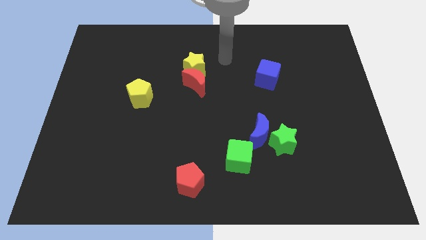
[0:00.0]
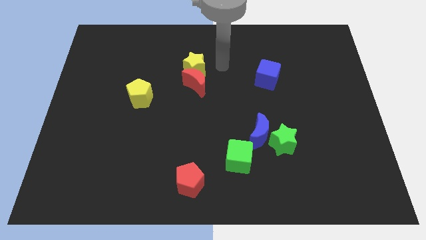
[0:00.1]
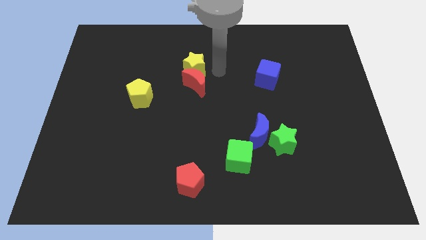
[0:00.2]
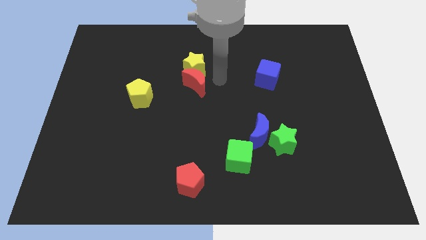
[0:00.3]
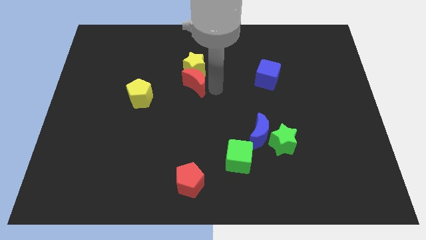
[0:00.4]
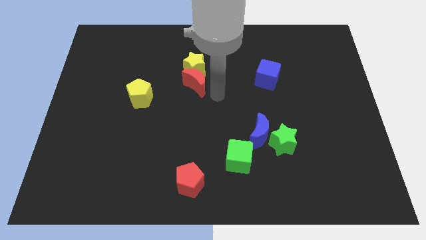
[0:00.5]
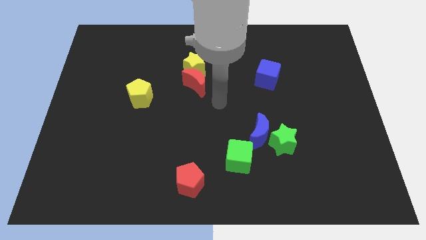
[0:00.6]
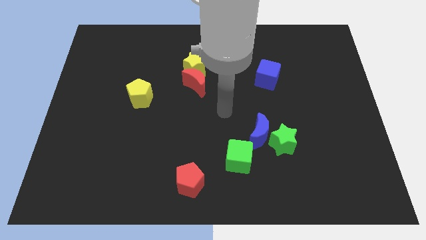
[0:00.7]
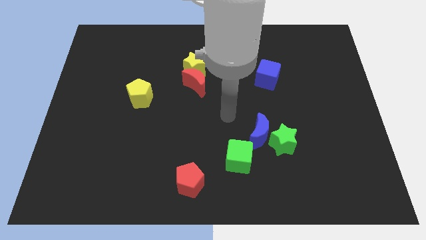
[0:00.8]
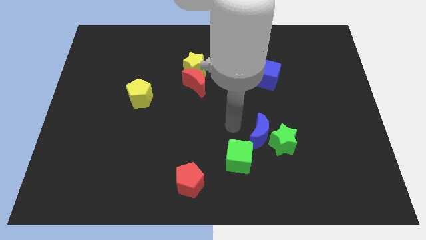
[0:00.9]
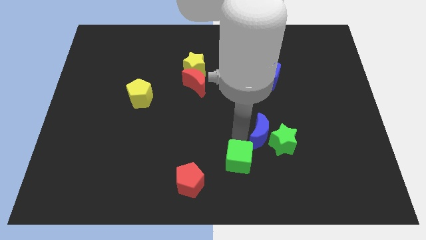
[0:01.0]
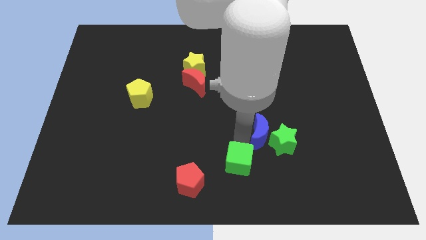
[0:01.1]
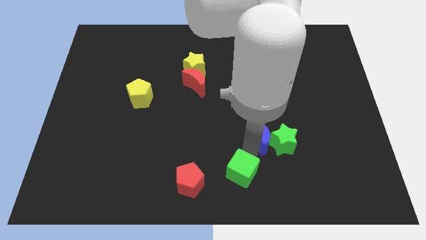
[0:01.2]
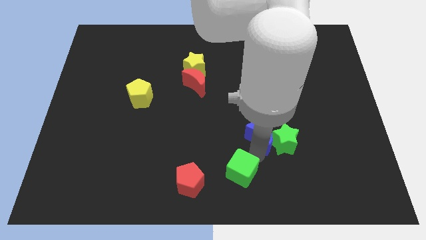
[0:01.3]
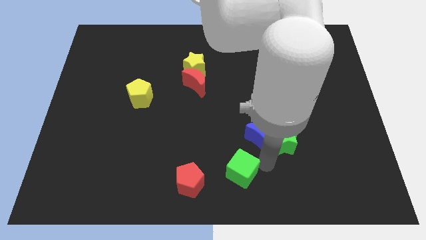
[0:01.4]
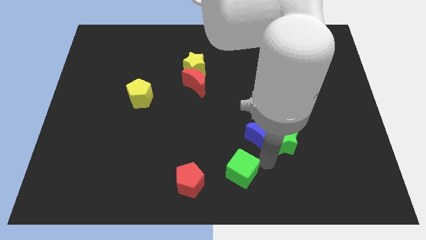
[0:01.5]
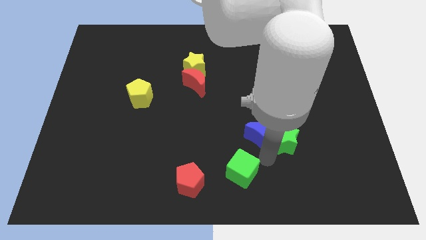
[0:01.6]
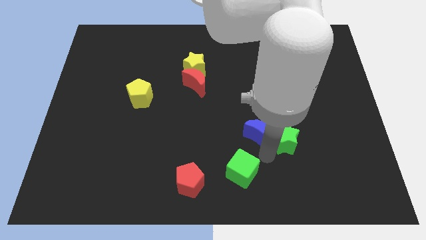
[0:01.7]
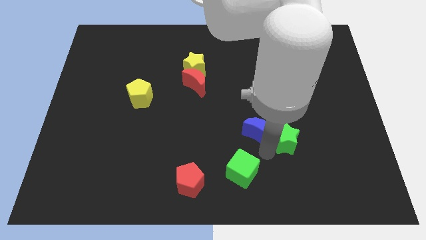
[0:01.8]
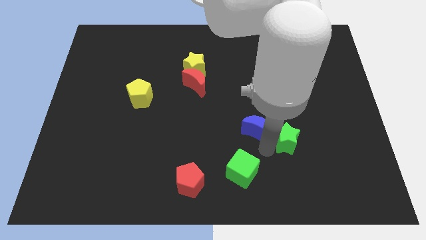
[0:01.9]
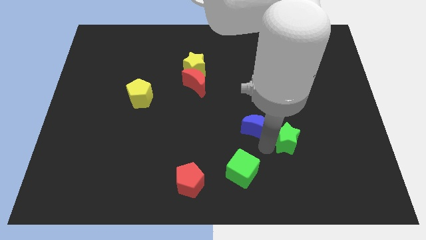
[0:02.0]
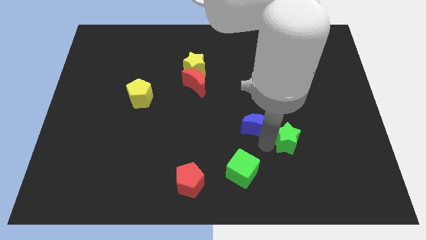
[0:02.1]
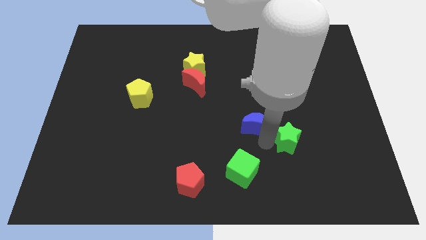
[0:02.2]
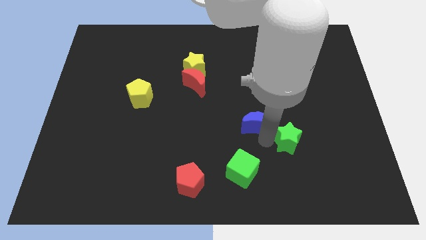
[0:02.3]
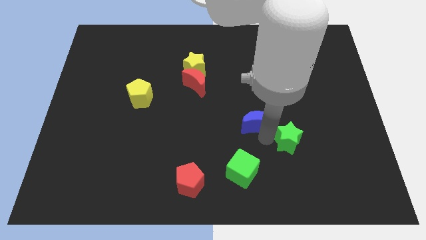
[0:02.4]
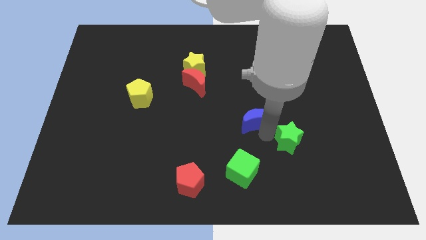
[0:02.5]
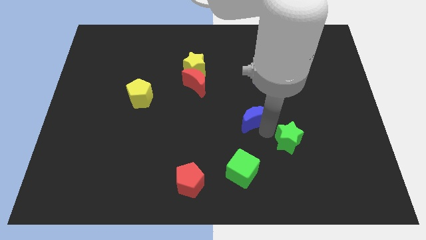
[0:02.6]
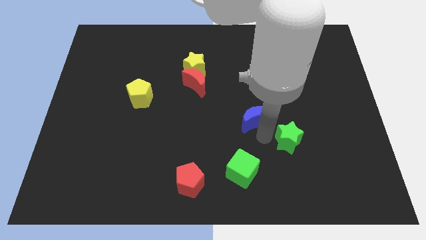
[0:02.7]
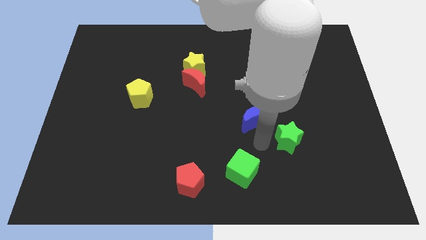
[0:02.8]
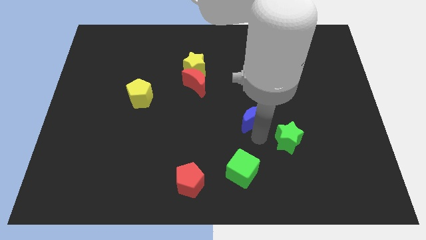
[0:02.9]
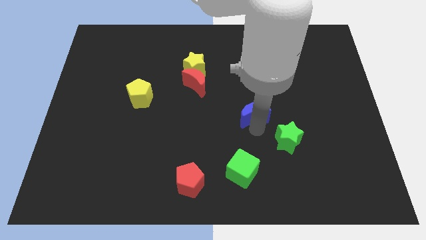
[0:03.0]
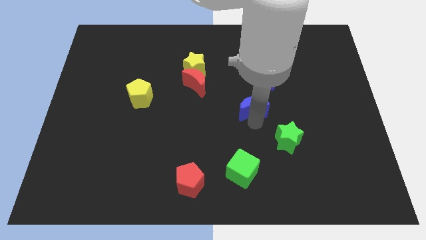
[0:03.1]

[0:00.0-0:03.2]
slightly move the blue moon upwards

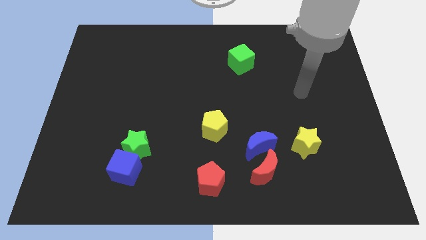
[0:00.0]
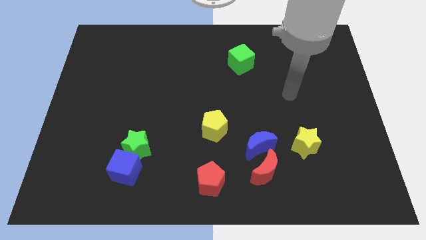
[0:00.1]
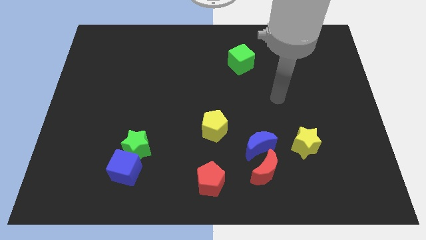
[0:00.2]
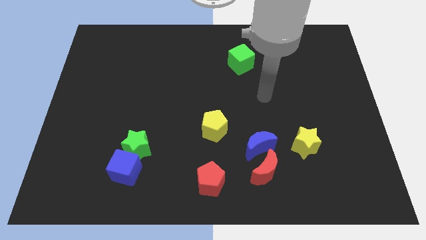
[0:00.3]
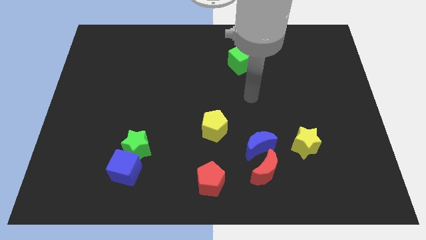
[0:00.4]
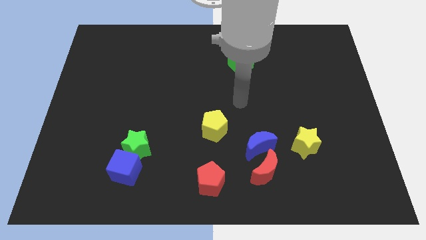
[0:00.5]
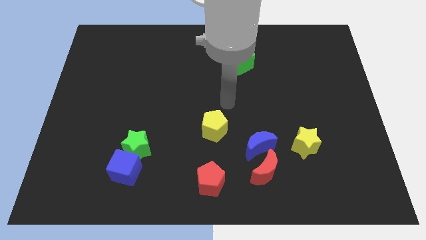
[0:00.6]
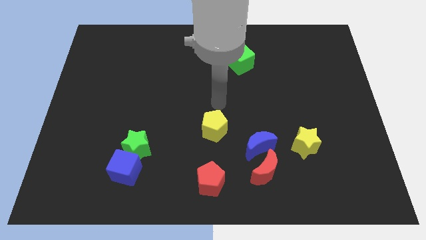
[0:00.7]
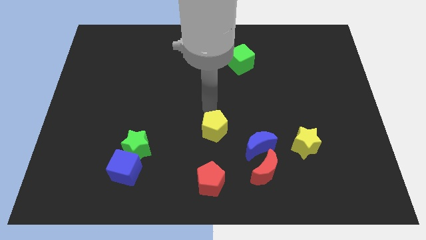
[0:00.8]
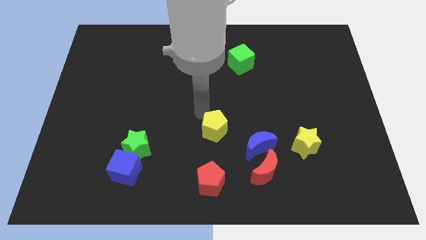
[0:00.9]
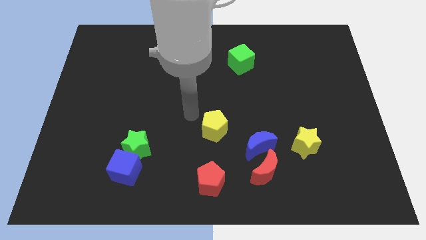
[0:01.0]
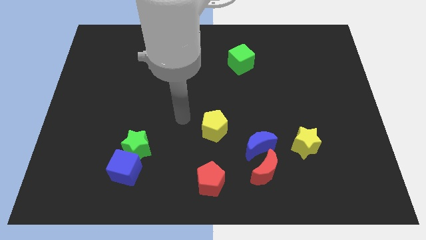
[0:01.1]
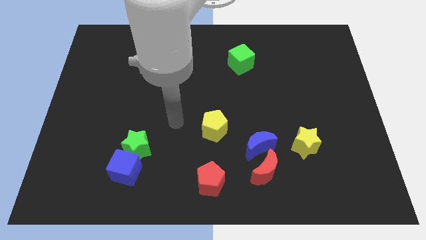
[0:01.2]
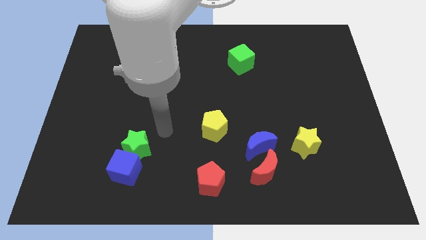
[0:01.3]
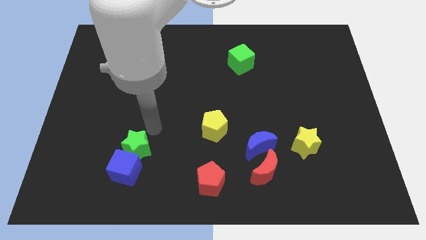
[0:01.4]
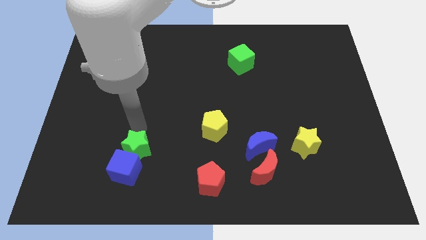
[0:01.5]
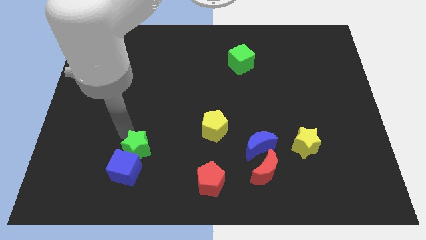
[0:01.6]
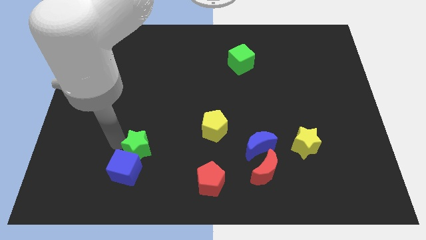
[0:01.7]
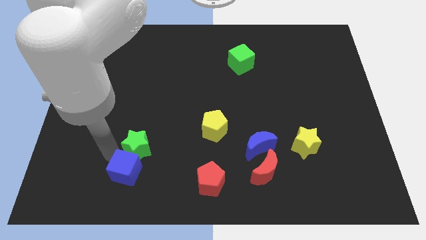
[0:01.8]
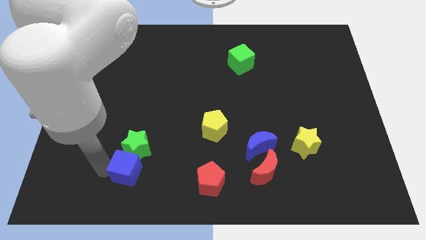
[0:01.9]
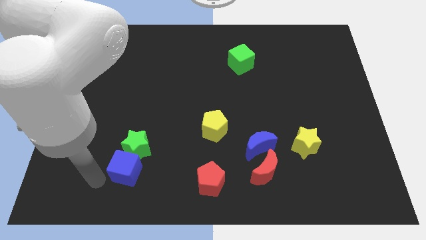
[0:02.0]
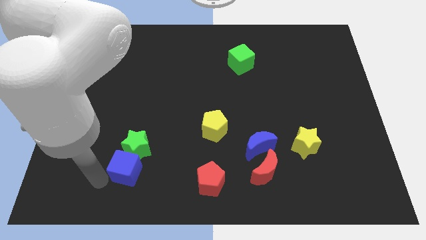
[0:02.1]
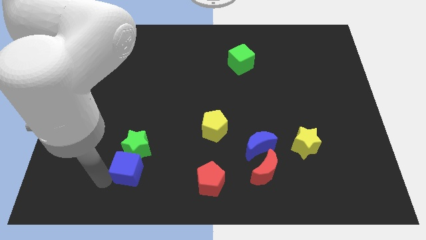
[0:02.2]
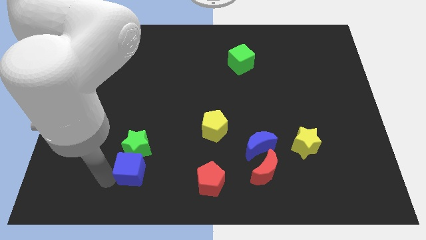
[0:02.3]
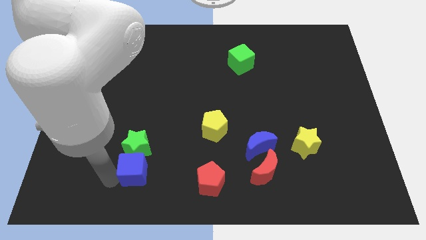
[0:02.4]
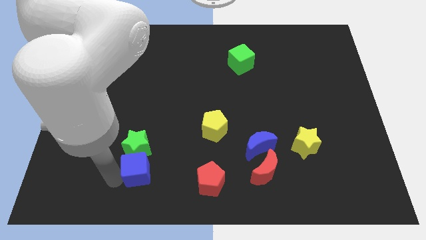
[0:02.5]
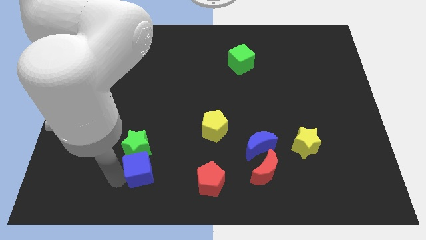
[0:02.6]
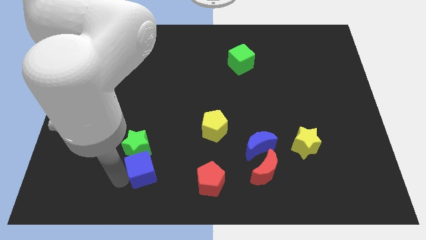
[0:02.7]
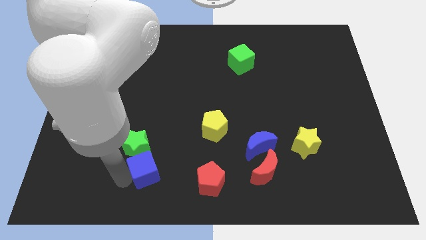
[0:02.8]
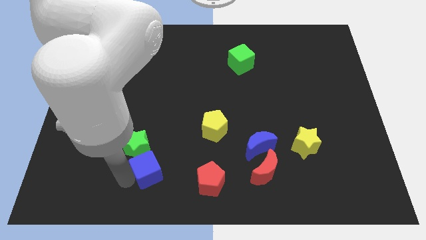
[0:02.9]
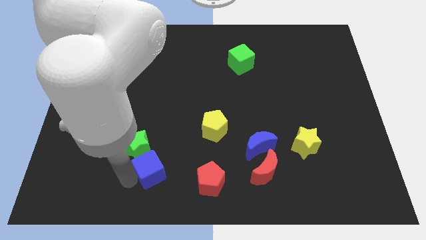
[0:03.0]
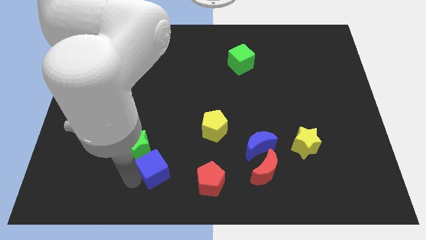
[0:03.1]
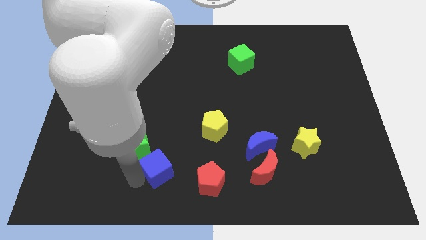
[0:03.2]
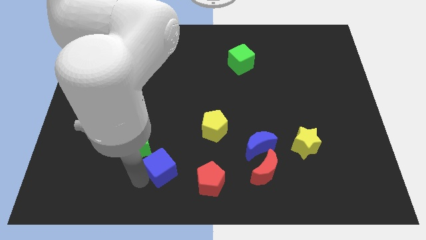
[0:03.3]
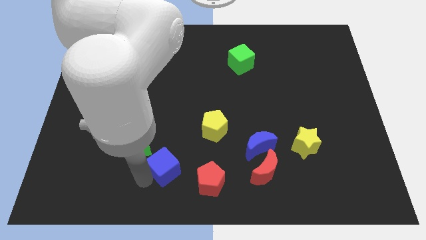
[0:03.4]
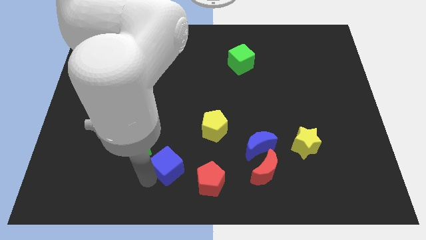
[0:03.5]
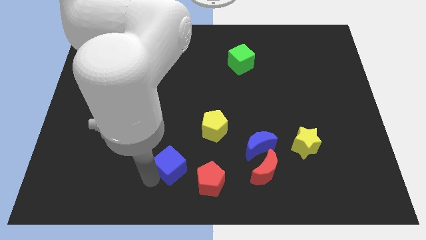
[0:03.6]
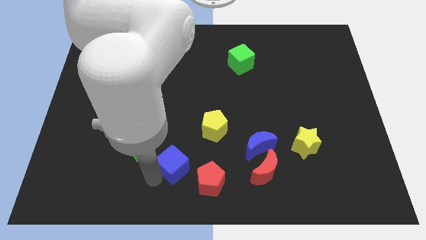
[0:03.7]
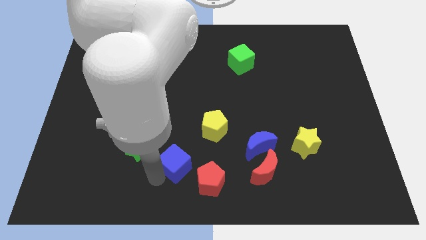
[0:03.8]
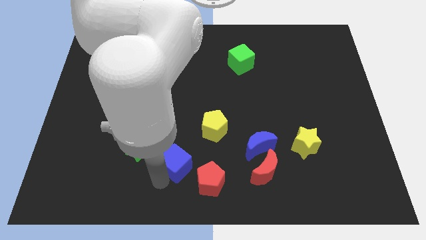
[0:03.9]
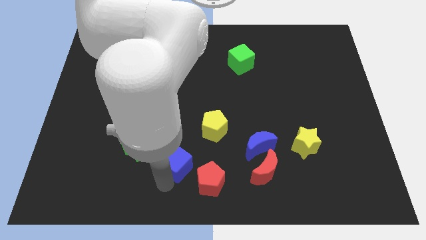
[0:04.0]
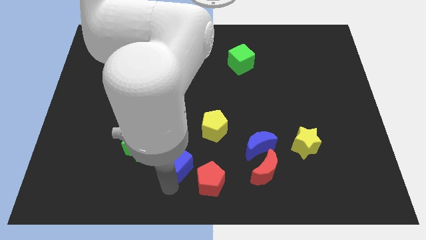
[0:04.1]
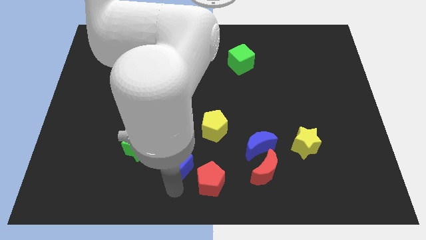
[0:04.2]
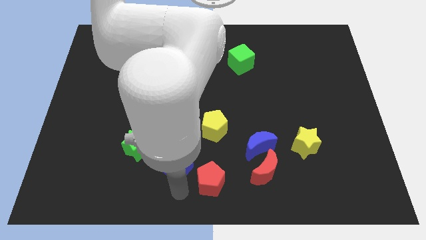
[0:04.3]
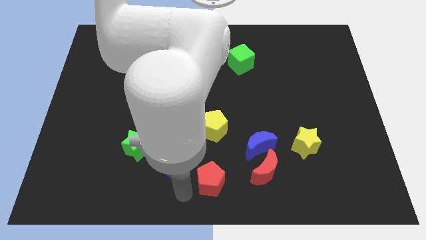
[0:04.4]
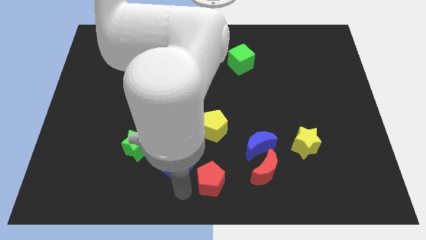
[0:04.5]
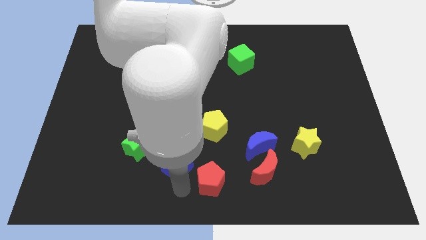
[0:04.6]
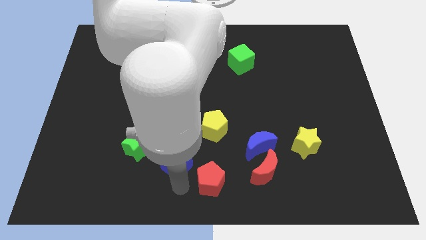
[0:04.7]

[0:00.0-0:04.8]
slide the blue cube slightly up and right diagonally

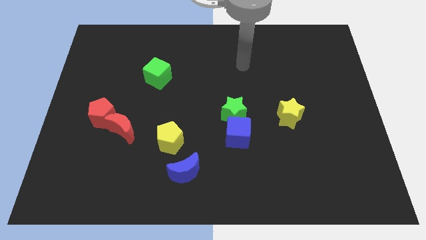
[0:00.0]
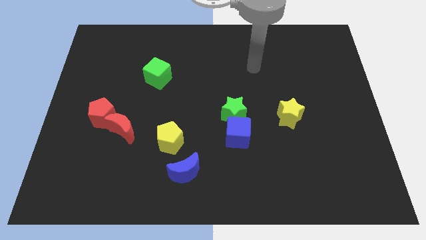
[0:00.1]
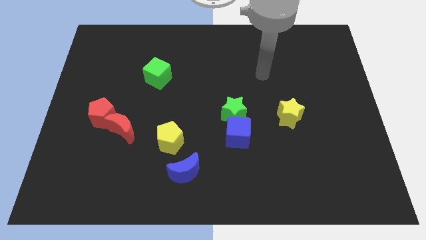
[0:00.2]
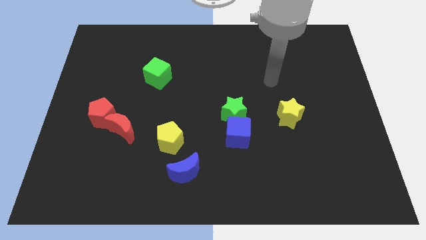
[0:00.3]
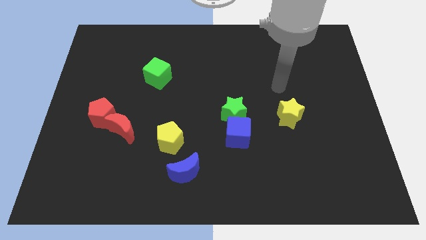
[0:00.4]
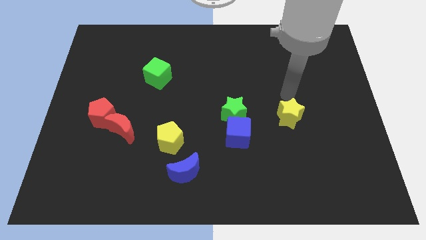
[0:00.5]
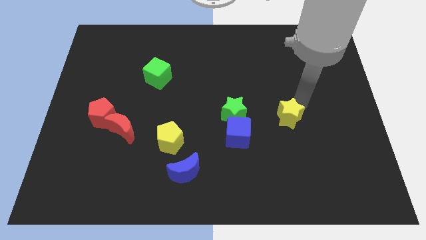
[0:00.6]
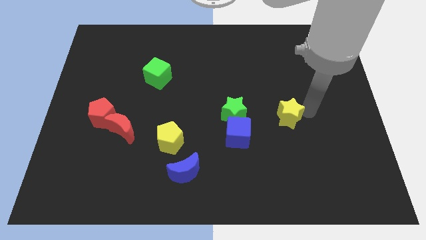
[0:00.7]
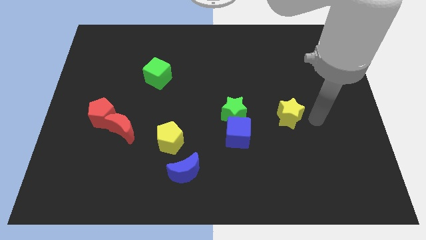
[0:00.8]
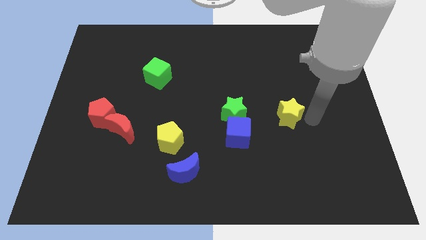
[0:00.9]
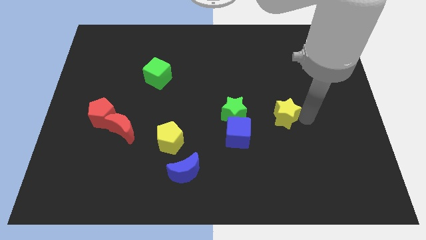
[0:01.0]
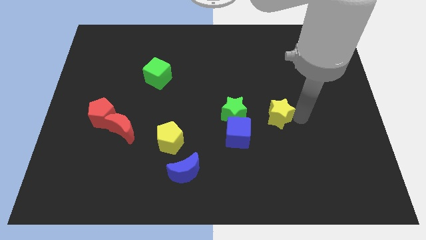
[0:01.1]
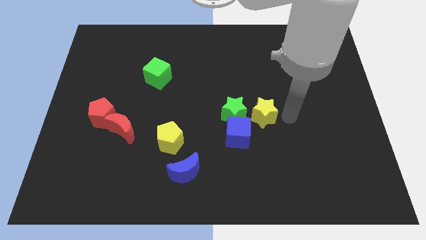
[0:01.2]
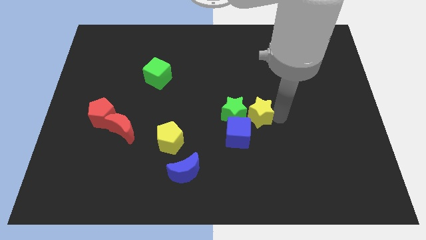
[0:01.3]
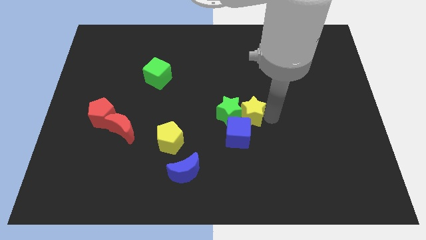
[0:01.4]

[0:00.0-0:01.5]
slide the yellow star a bit to the left
